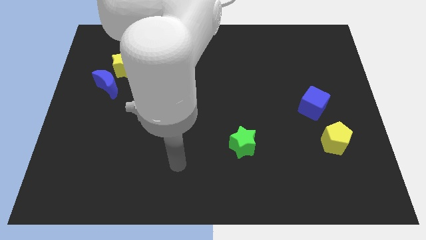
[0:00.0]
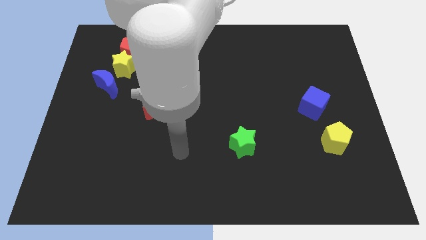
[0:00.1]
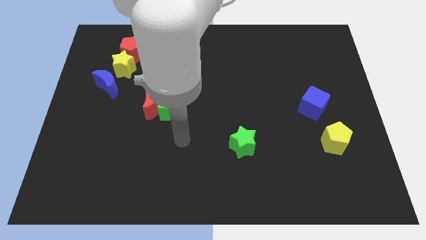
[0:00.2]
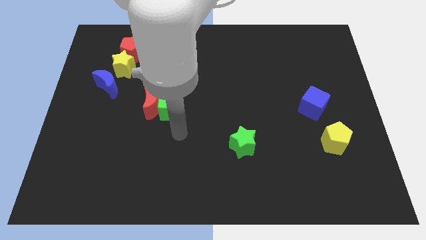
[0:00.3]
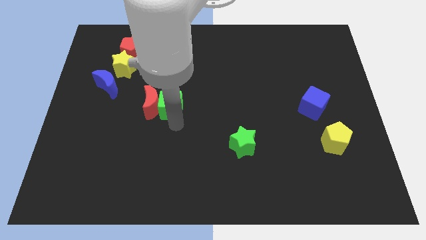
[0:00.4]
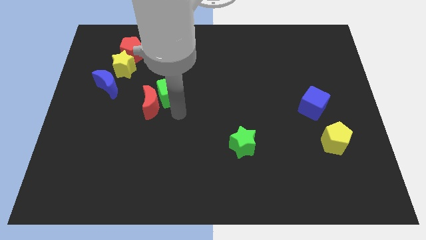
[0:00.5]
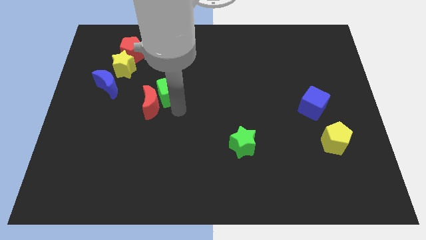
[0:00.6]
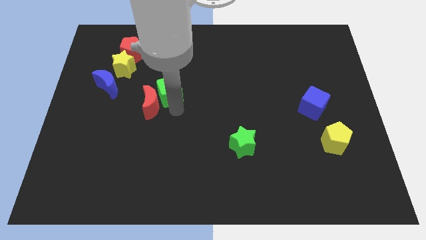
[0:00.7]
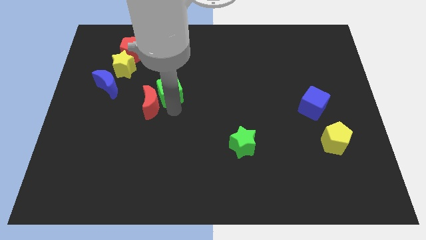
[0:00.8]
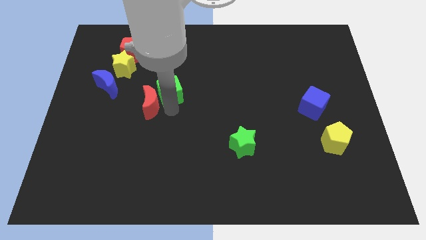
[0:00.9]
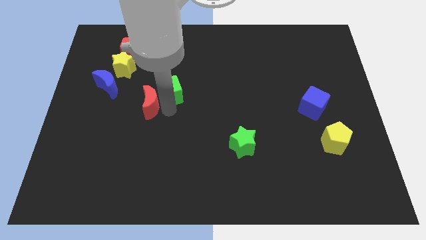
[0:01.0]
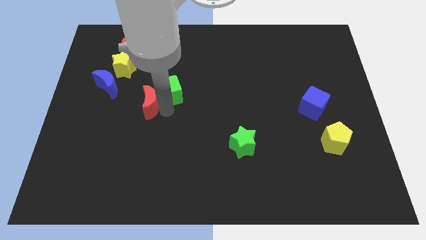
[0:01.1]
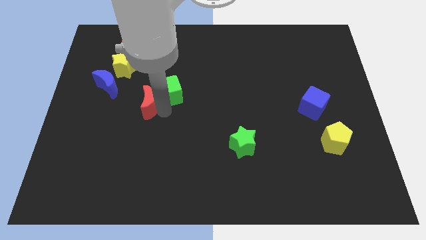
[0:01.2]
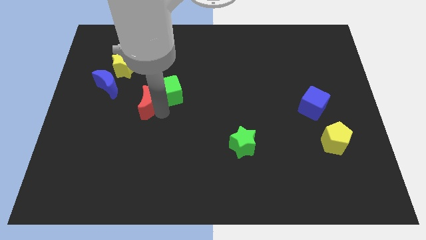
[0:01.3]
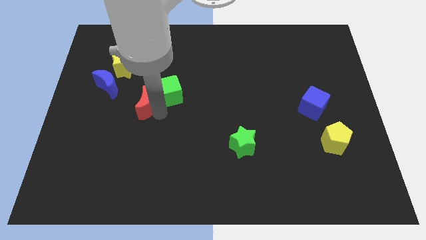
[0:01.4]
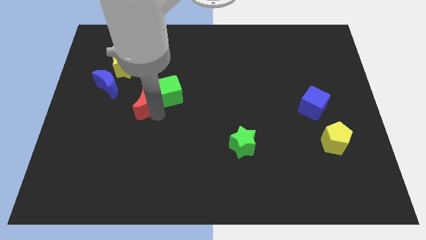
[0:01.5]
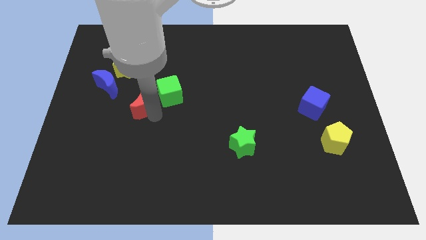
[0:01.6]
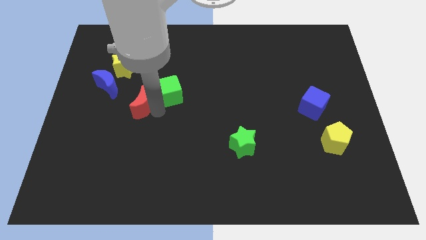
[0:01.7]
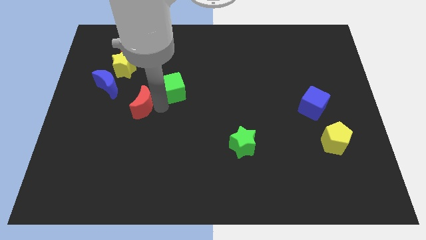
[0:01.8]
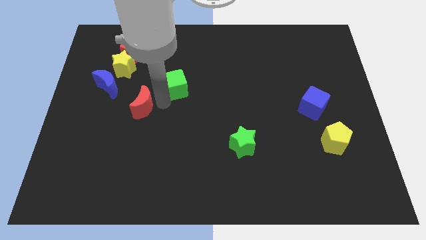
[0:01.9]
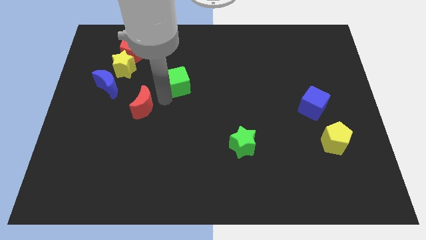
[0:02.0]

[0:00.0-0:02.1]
move the red moon away from the green cube

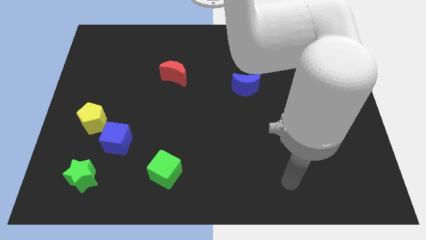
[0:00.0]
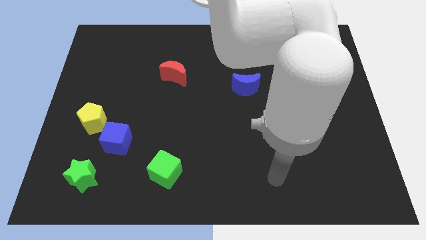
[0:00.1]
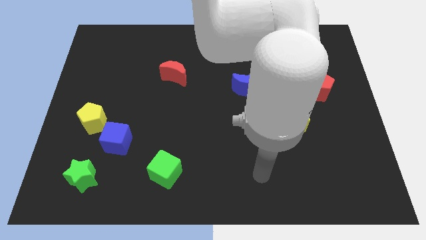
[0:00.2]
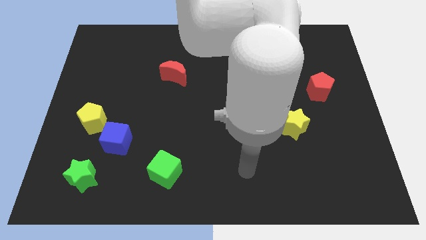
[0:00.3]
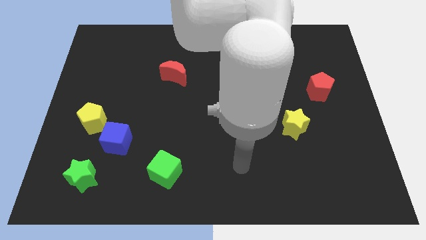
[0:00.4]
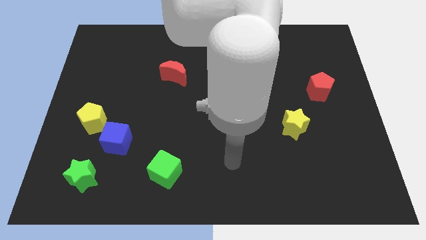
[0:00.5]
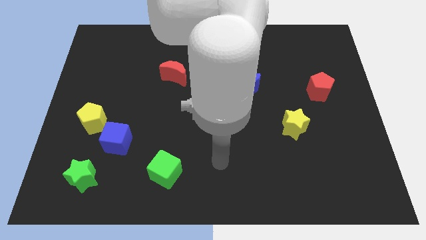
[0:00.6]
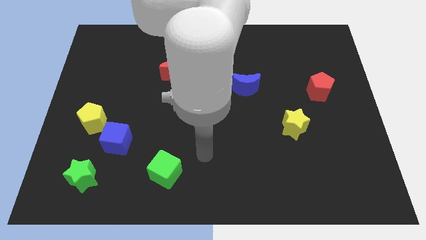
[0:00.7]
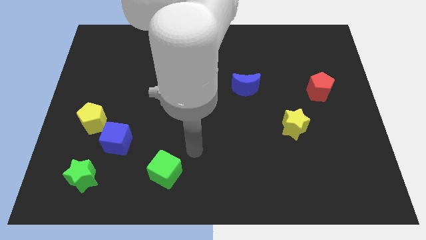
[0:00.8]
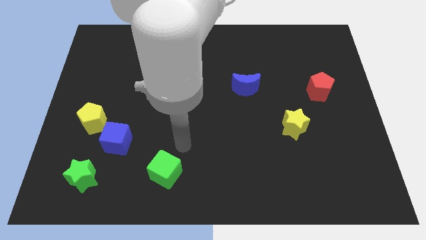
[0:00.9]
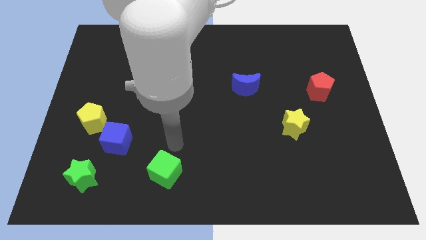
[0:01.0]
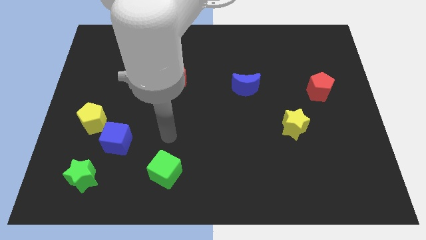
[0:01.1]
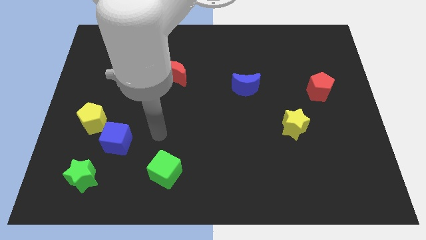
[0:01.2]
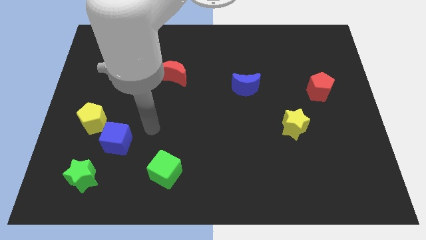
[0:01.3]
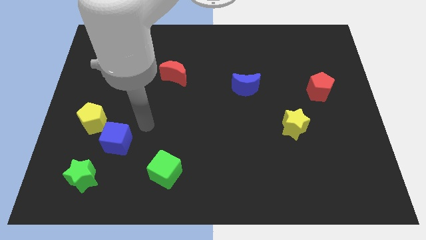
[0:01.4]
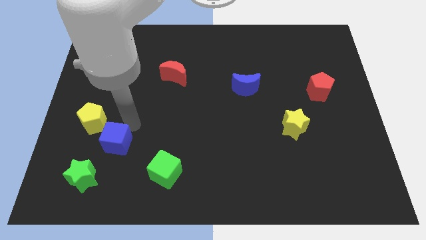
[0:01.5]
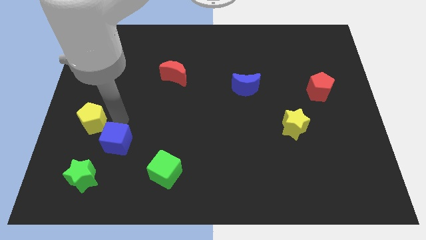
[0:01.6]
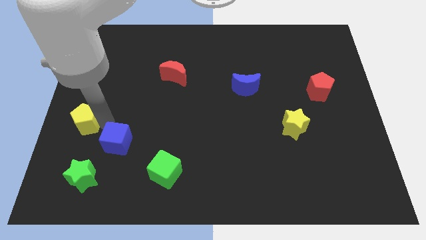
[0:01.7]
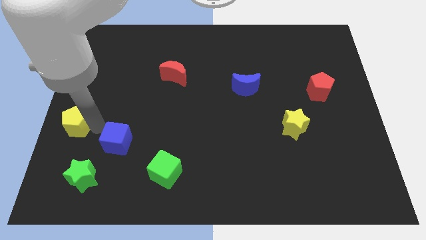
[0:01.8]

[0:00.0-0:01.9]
separate the blue cube from the yellow pentagon

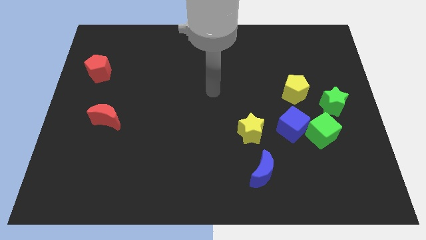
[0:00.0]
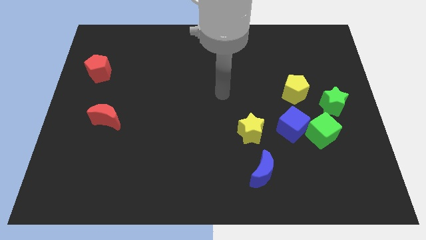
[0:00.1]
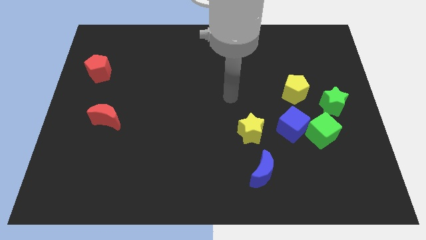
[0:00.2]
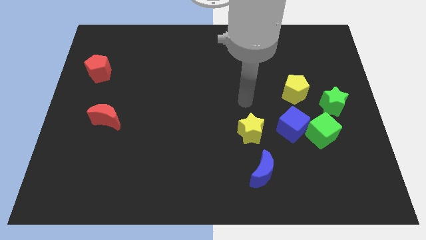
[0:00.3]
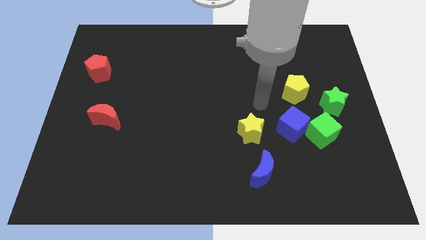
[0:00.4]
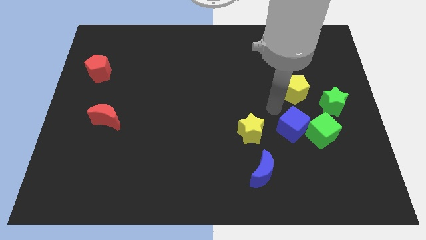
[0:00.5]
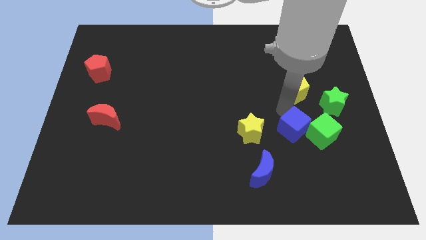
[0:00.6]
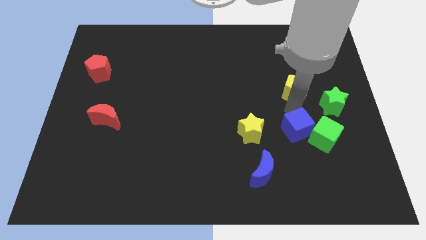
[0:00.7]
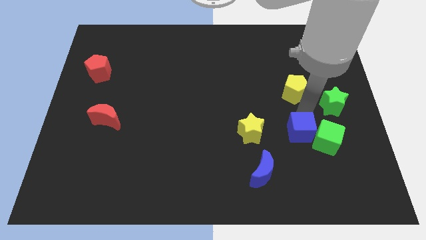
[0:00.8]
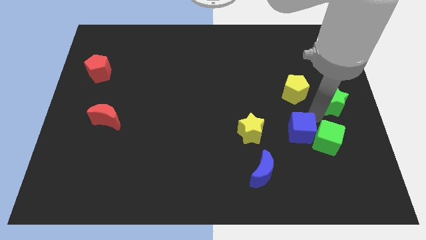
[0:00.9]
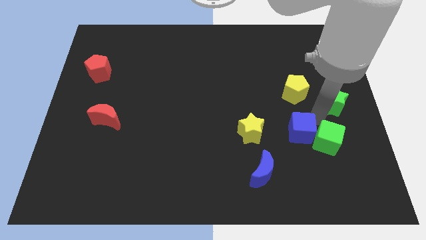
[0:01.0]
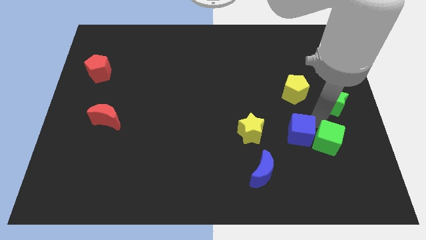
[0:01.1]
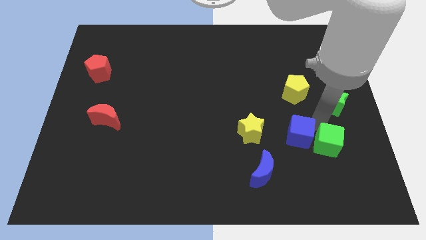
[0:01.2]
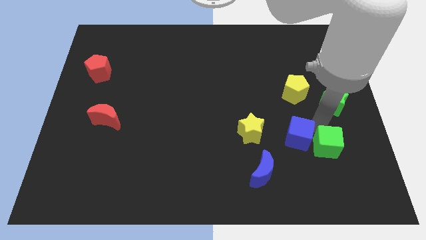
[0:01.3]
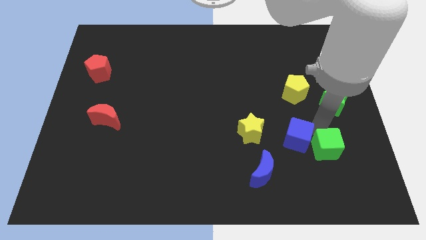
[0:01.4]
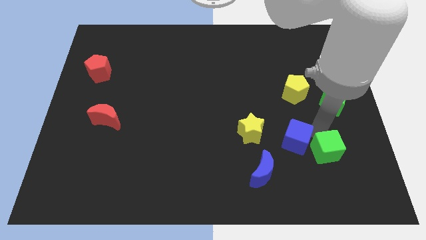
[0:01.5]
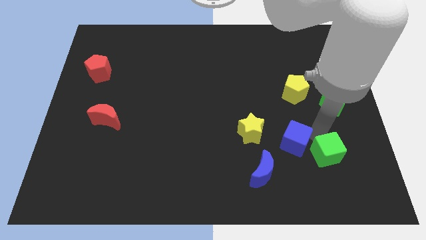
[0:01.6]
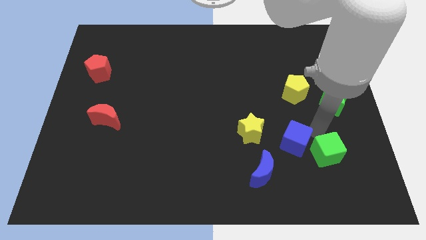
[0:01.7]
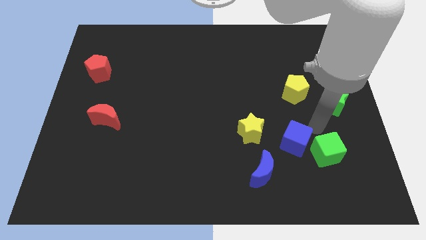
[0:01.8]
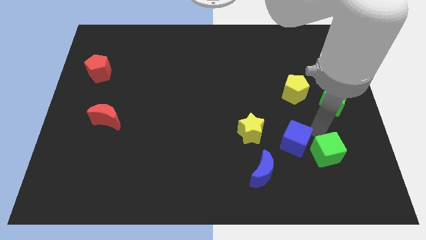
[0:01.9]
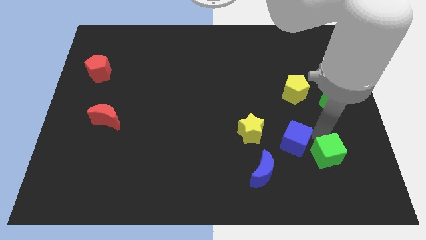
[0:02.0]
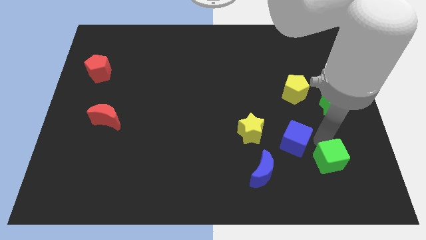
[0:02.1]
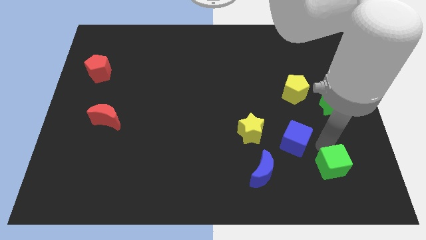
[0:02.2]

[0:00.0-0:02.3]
move the green cube away from the blue cube and green star

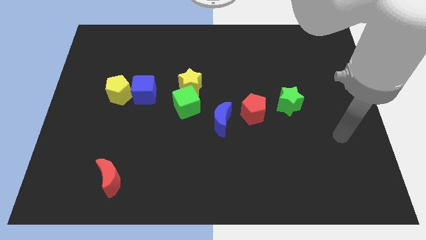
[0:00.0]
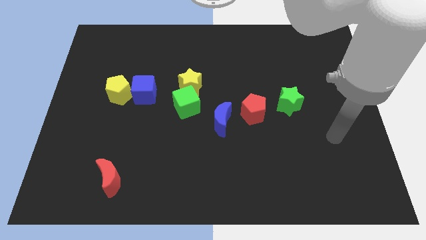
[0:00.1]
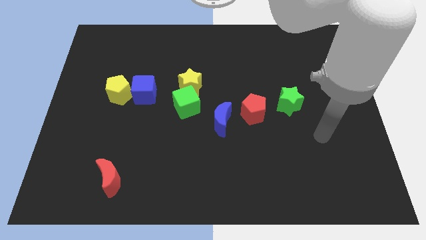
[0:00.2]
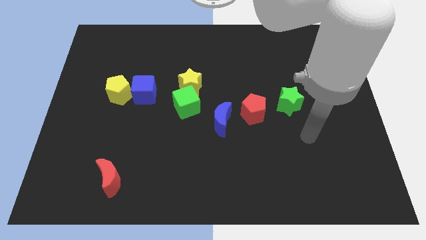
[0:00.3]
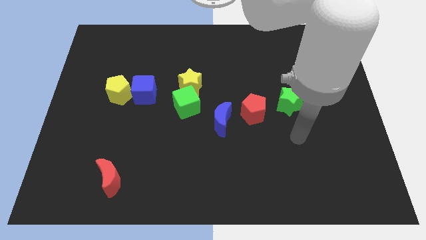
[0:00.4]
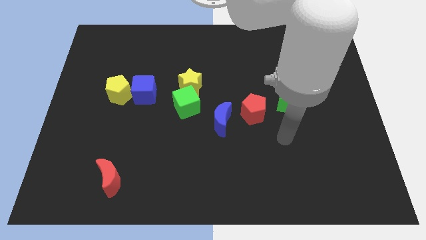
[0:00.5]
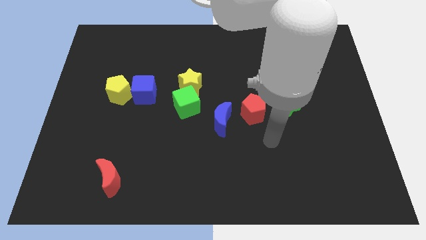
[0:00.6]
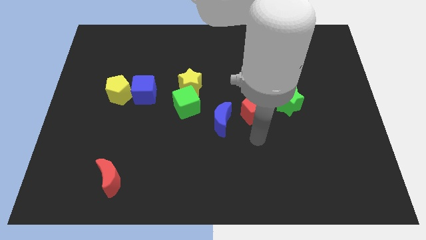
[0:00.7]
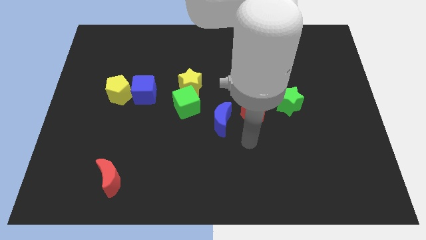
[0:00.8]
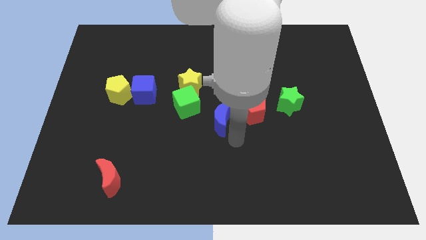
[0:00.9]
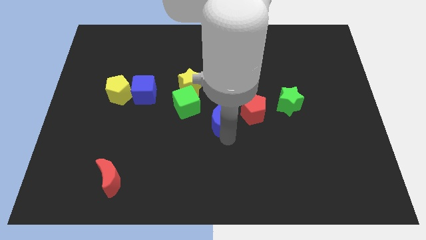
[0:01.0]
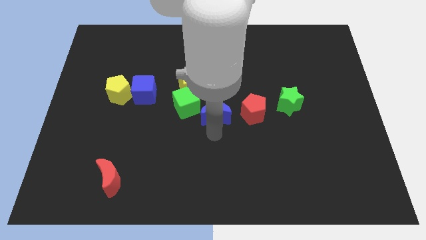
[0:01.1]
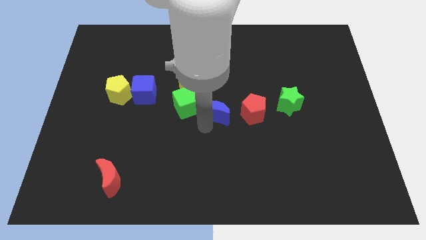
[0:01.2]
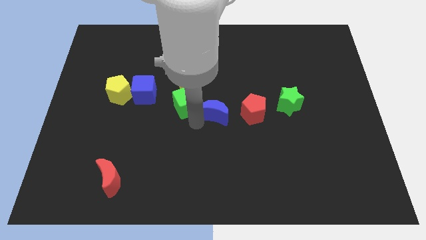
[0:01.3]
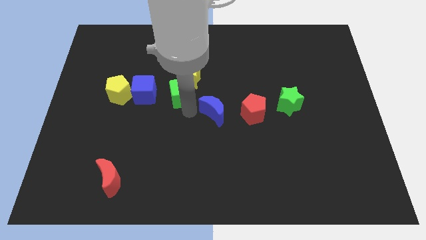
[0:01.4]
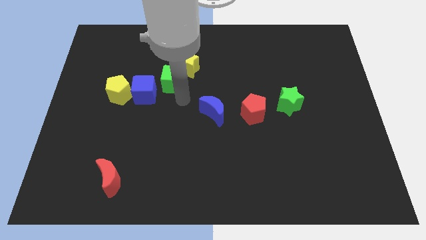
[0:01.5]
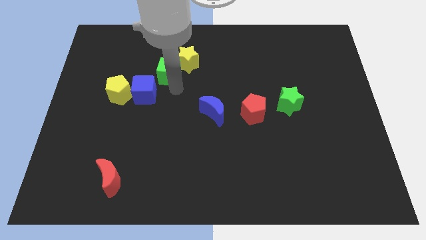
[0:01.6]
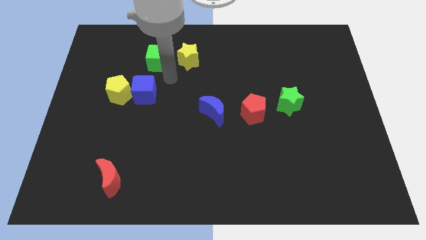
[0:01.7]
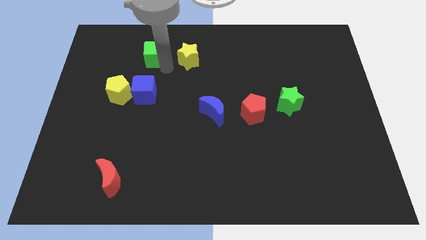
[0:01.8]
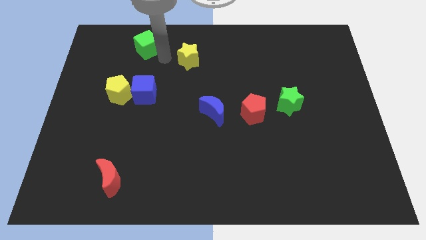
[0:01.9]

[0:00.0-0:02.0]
move the yellow star away from the green cube

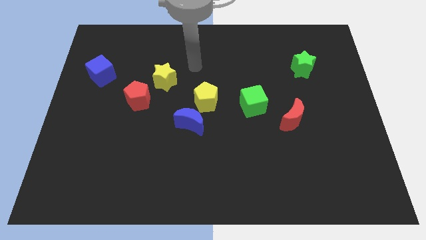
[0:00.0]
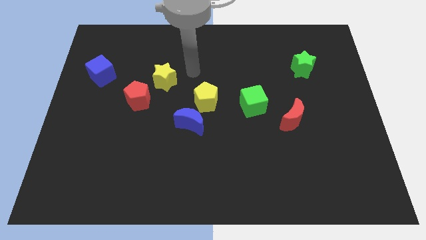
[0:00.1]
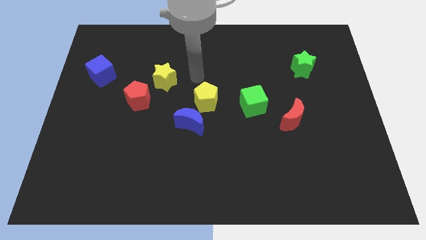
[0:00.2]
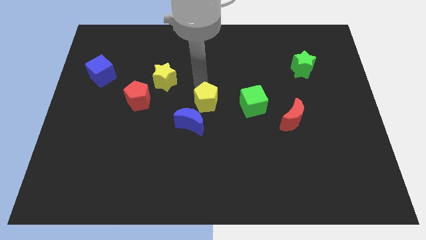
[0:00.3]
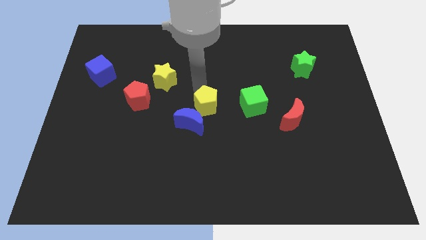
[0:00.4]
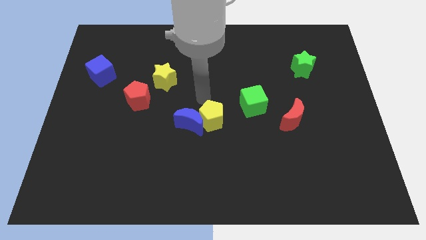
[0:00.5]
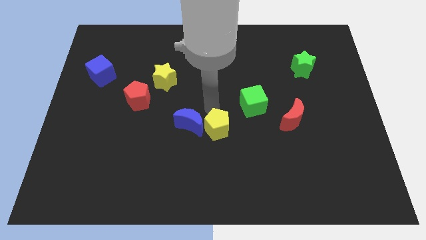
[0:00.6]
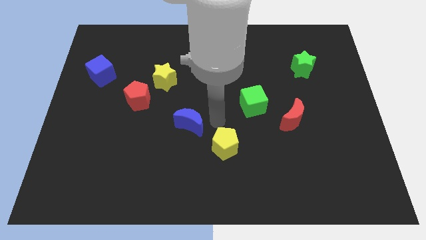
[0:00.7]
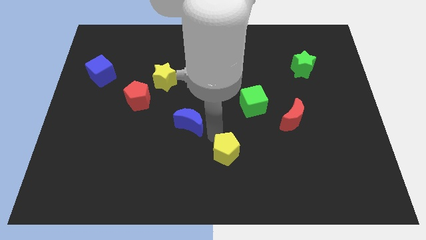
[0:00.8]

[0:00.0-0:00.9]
move the blue moon away from the yellow pentagon
